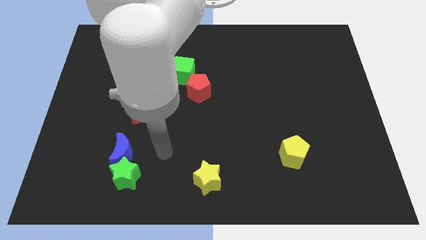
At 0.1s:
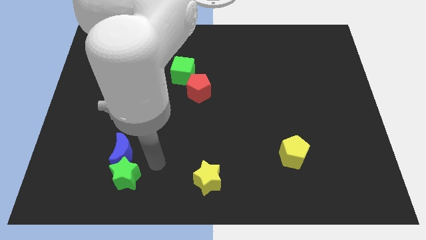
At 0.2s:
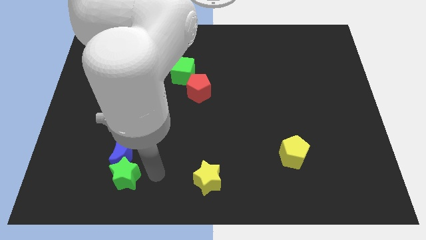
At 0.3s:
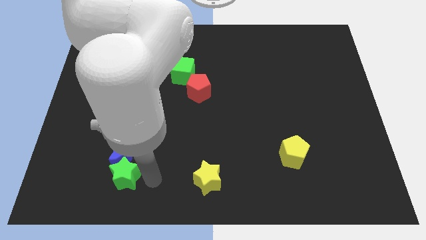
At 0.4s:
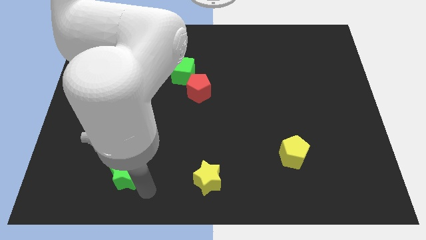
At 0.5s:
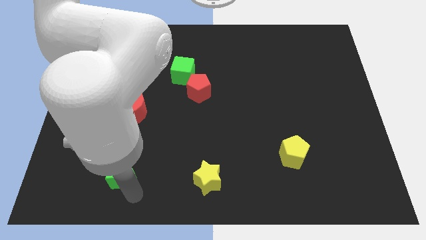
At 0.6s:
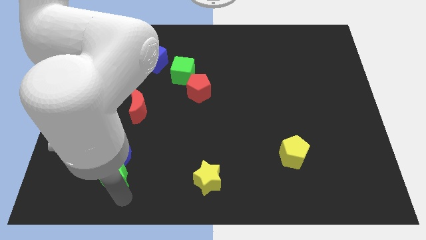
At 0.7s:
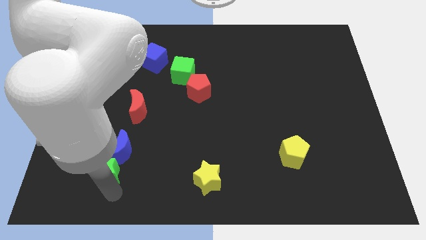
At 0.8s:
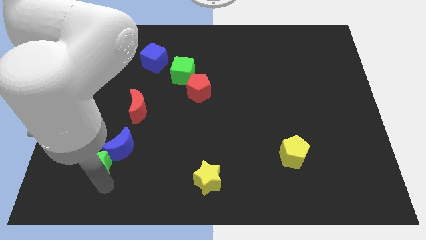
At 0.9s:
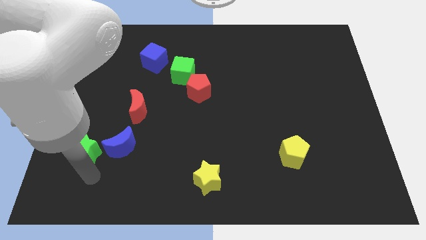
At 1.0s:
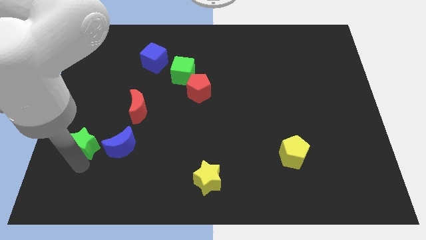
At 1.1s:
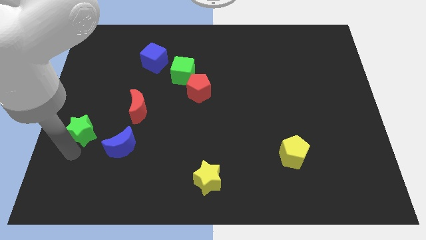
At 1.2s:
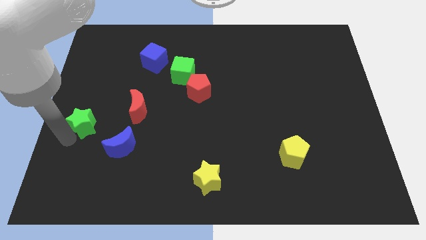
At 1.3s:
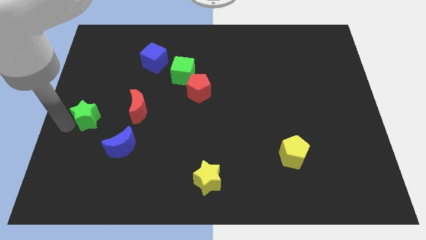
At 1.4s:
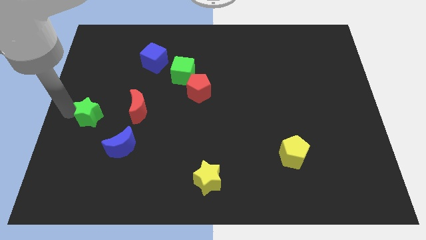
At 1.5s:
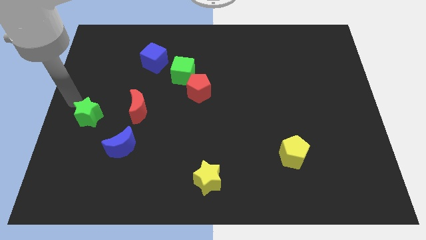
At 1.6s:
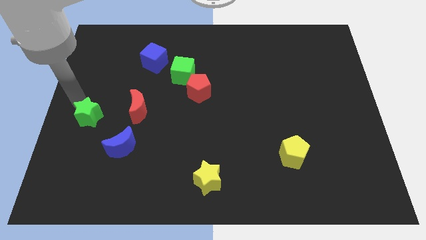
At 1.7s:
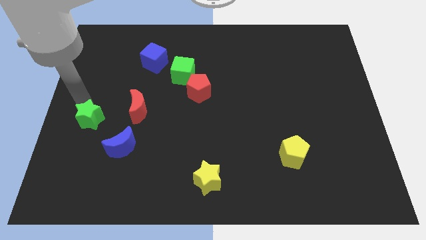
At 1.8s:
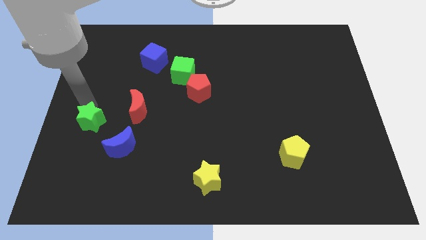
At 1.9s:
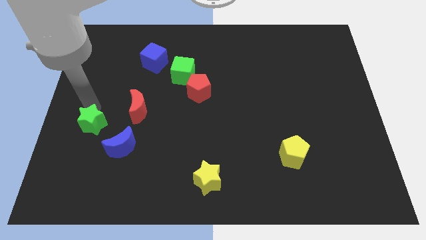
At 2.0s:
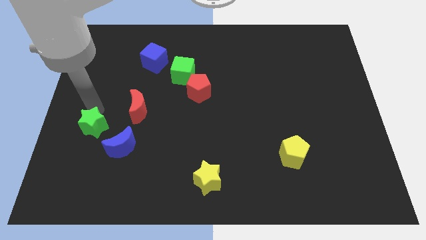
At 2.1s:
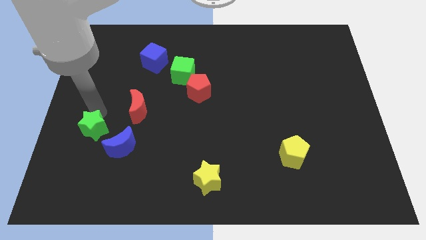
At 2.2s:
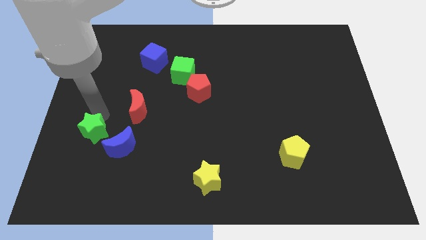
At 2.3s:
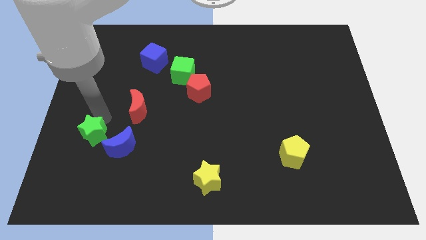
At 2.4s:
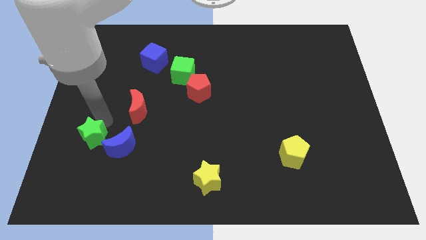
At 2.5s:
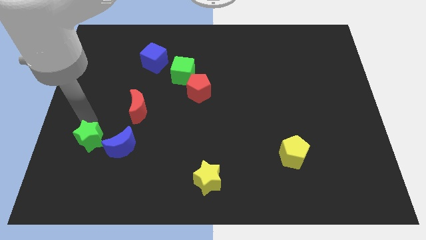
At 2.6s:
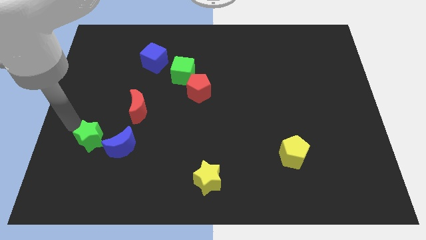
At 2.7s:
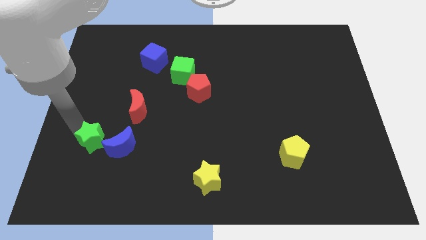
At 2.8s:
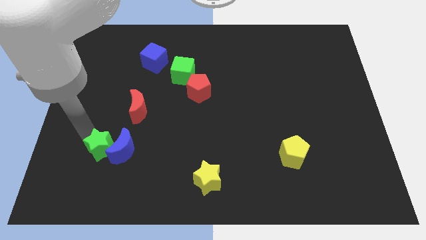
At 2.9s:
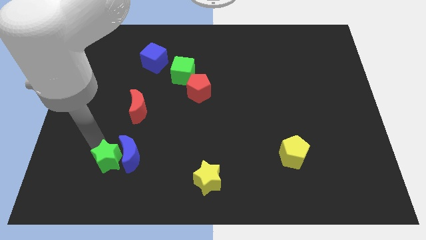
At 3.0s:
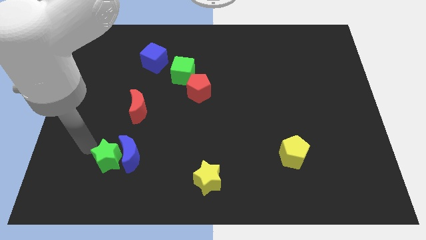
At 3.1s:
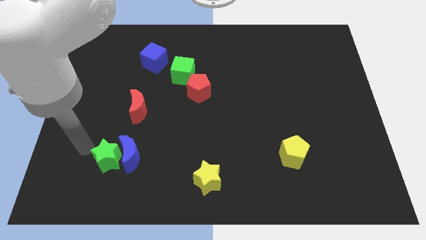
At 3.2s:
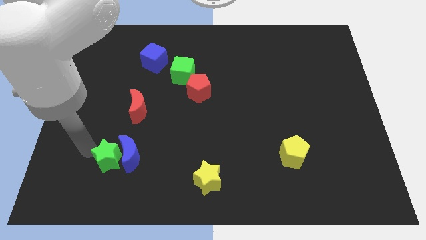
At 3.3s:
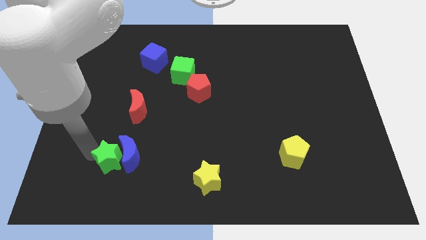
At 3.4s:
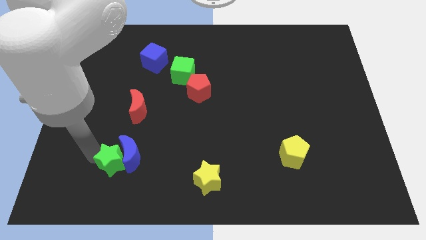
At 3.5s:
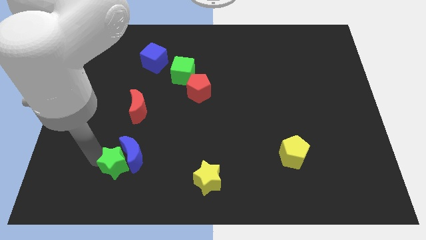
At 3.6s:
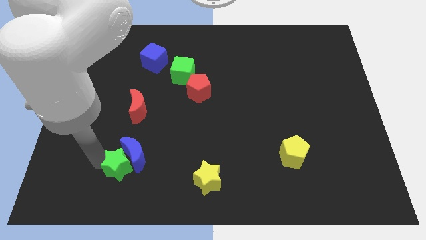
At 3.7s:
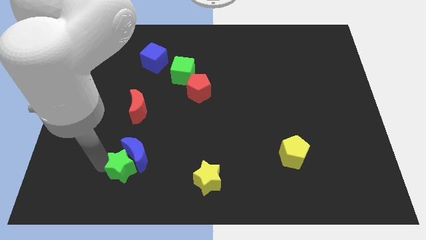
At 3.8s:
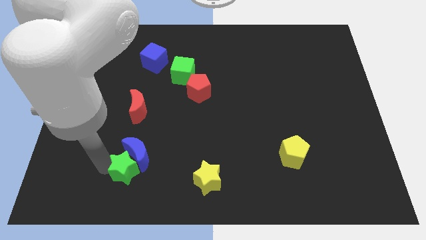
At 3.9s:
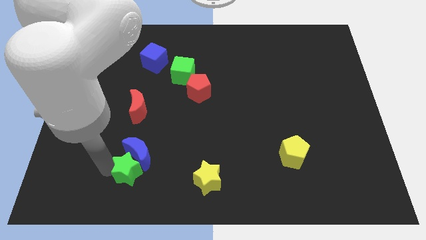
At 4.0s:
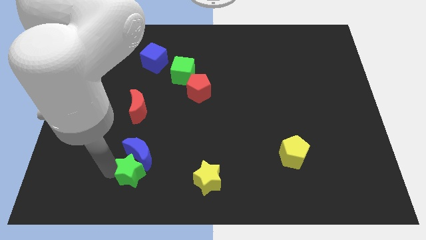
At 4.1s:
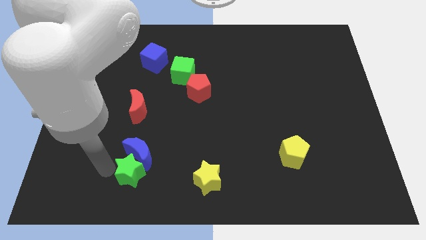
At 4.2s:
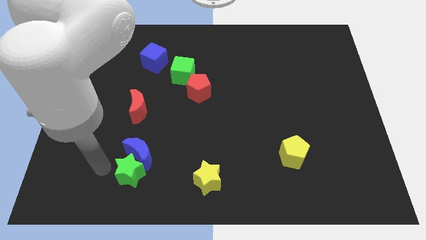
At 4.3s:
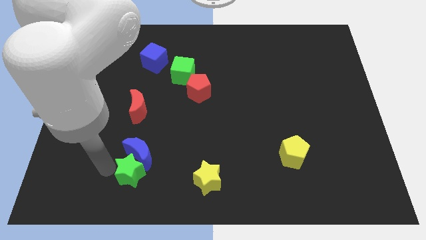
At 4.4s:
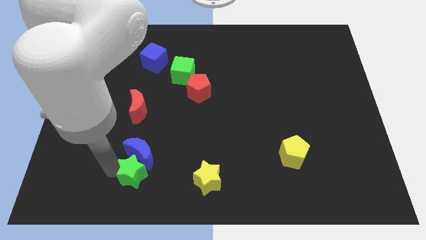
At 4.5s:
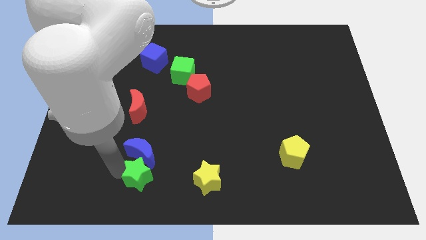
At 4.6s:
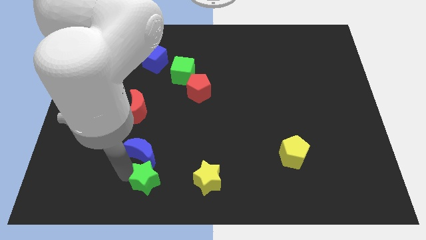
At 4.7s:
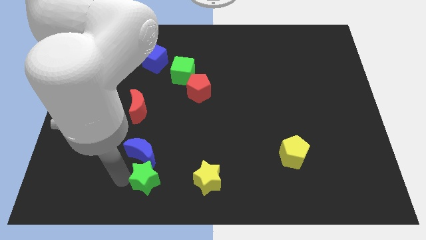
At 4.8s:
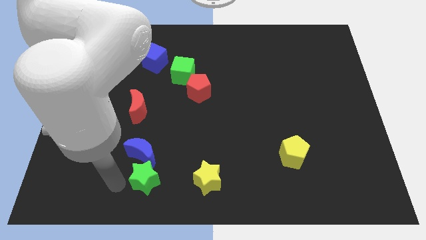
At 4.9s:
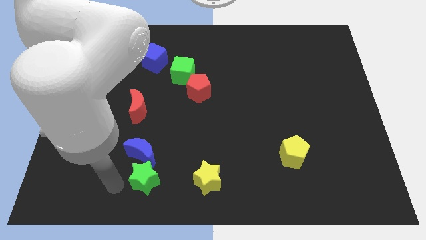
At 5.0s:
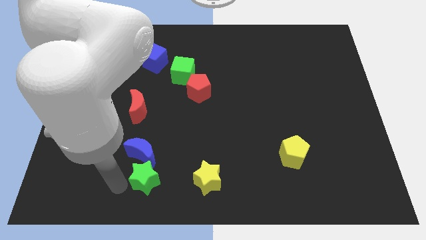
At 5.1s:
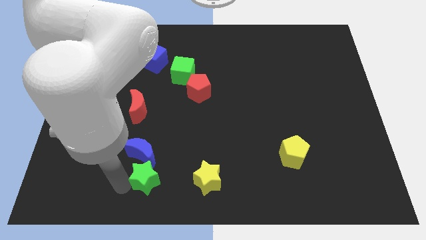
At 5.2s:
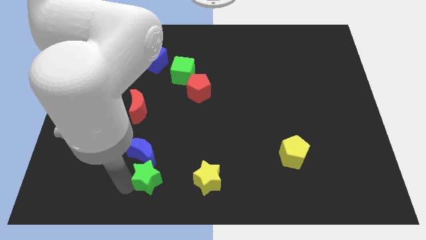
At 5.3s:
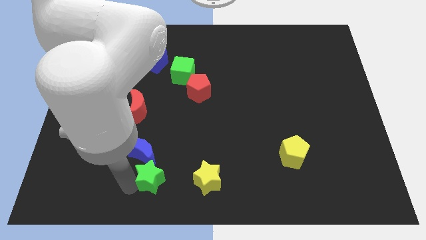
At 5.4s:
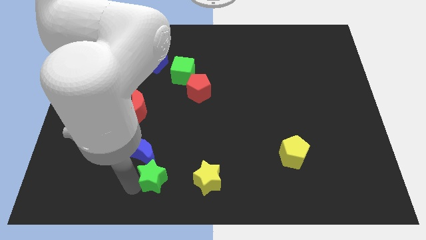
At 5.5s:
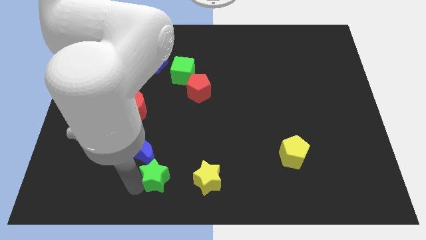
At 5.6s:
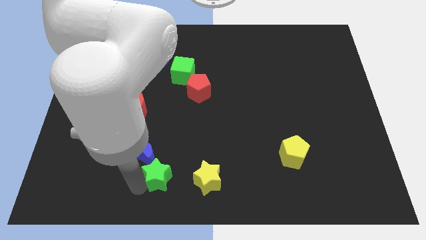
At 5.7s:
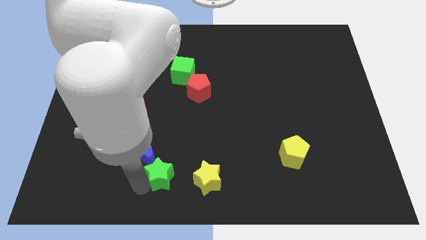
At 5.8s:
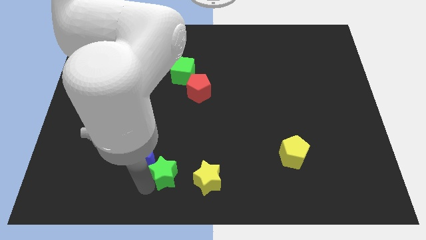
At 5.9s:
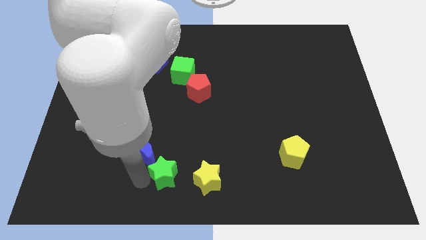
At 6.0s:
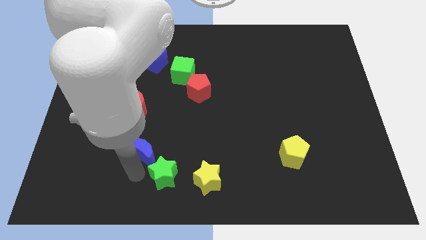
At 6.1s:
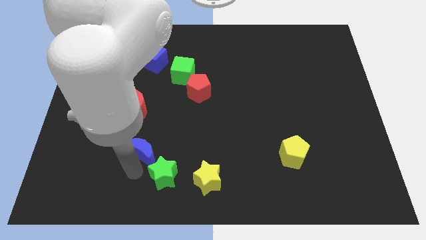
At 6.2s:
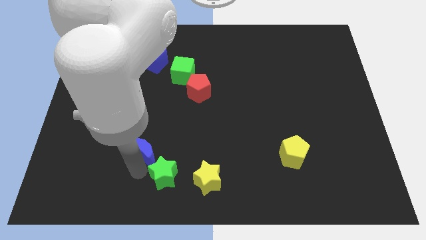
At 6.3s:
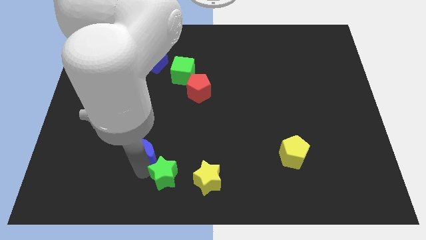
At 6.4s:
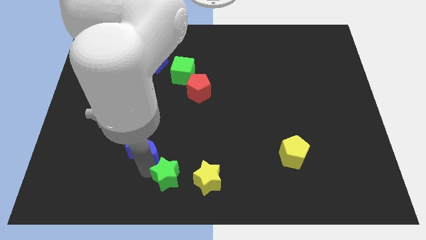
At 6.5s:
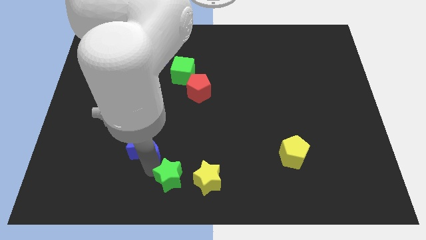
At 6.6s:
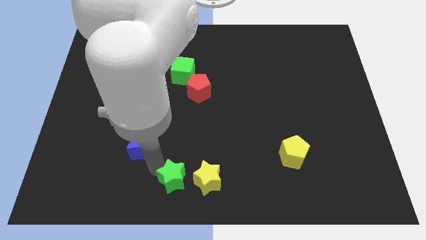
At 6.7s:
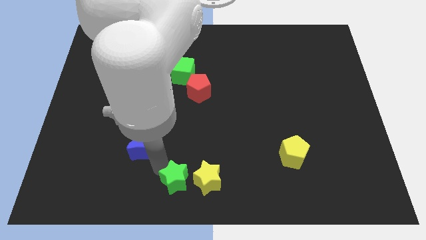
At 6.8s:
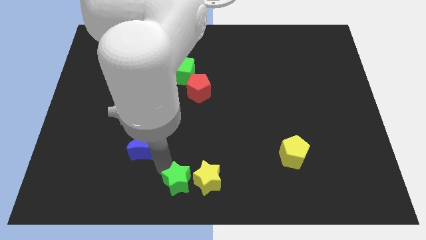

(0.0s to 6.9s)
push the green star close to the yellow star
